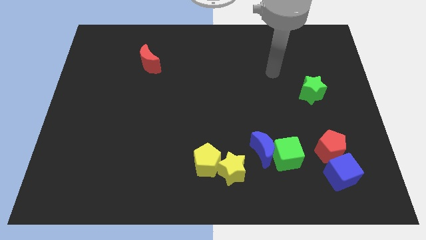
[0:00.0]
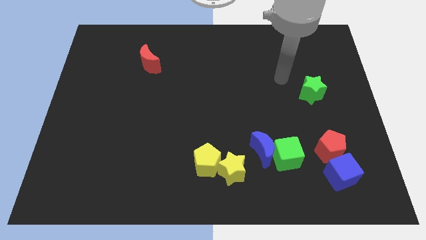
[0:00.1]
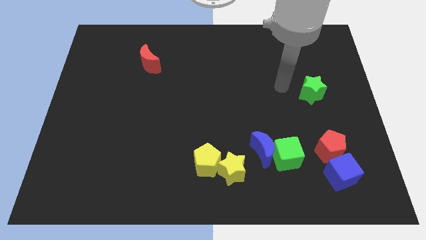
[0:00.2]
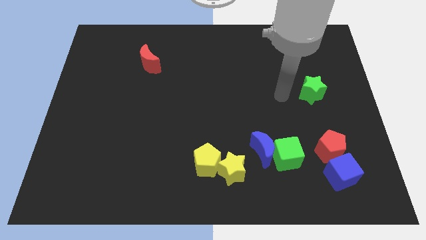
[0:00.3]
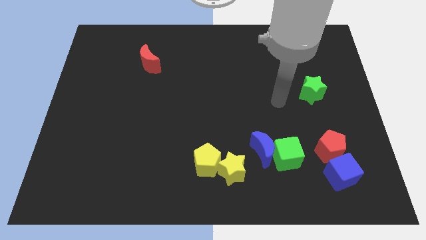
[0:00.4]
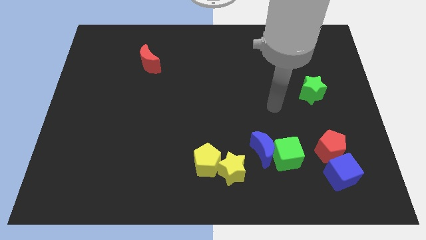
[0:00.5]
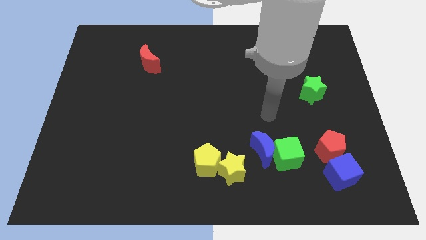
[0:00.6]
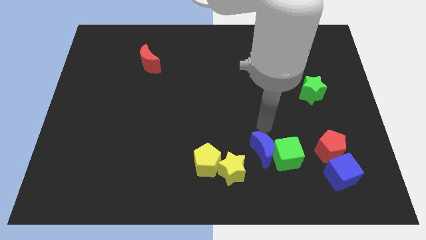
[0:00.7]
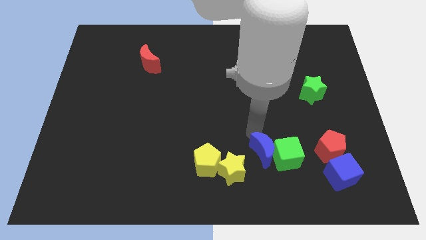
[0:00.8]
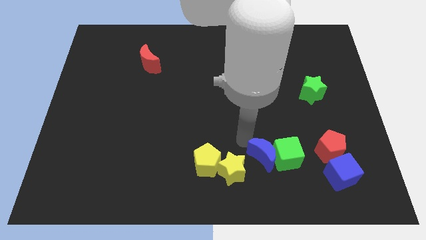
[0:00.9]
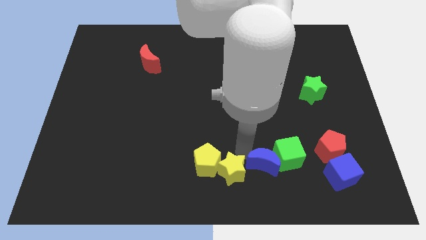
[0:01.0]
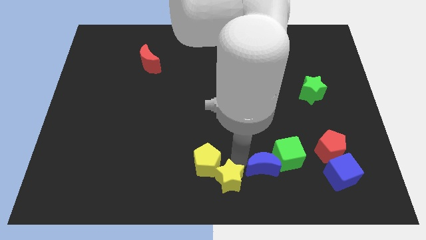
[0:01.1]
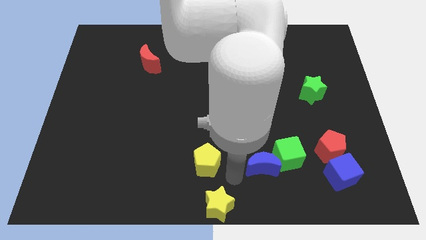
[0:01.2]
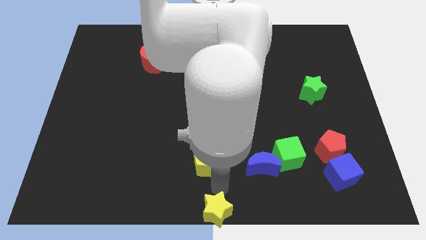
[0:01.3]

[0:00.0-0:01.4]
pull the yellow pentagon apart from the yellow star

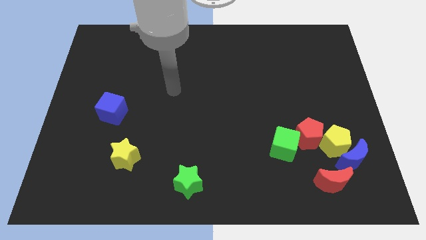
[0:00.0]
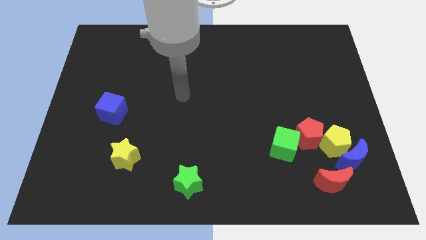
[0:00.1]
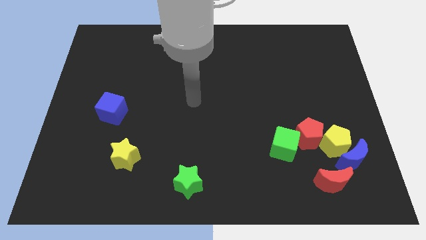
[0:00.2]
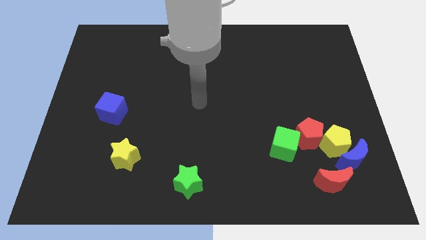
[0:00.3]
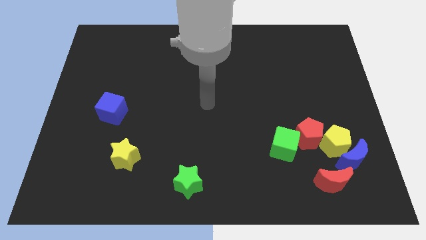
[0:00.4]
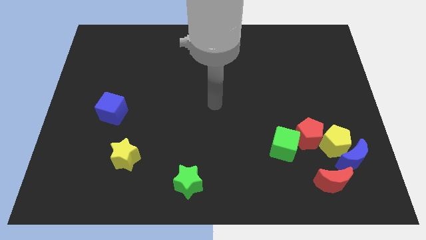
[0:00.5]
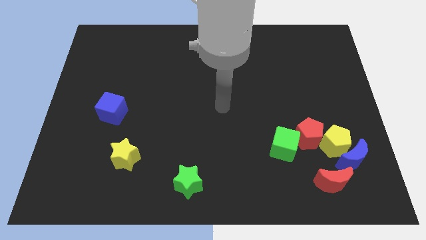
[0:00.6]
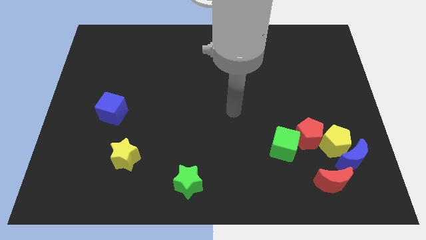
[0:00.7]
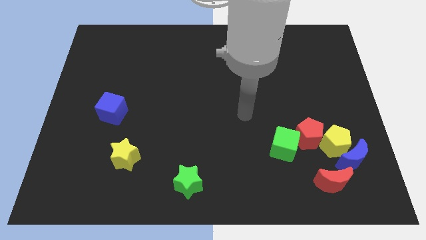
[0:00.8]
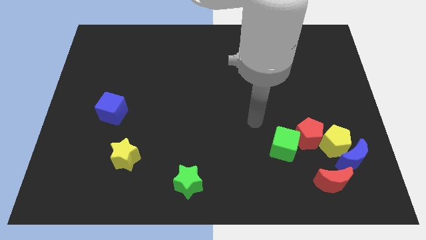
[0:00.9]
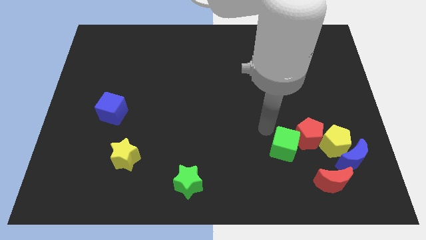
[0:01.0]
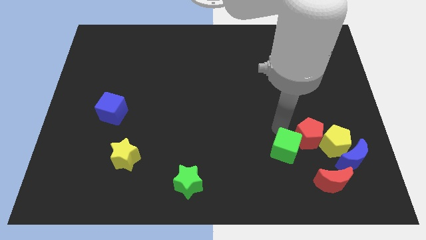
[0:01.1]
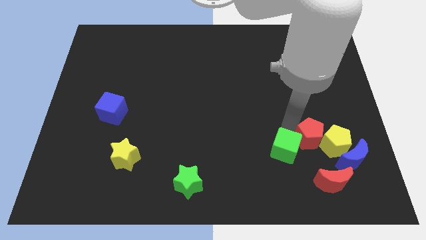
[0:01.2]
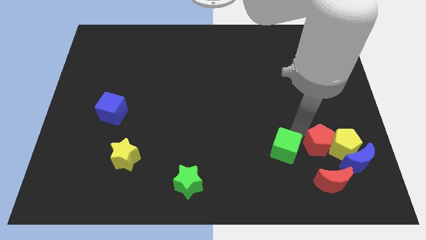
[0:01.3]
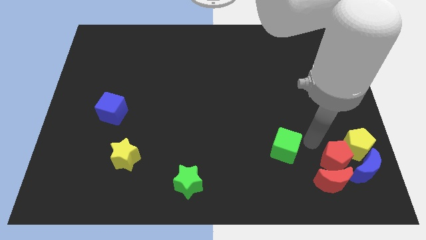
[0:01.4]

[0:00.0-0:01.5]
separate the green cube from the red pentagon

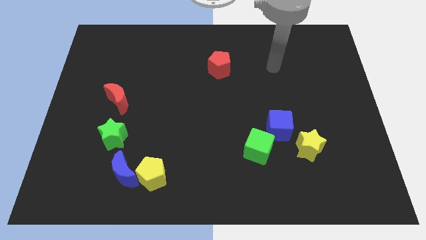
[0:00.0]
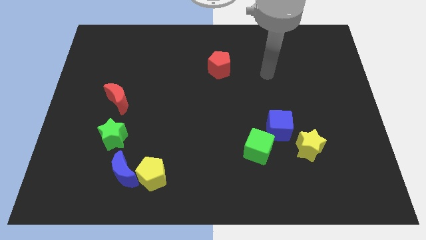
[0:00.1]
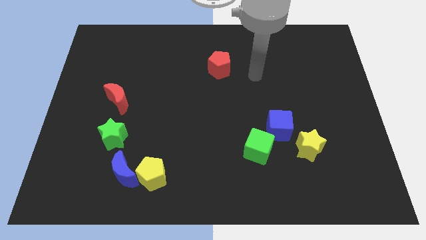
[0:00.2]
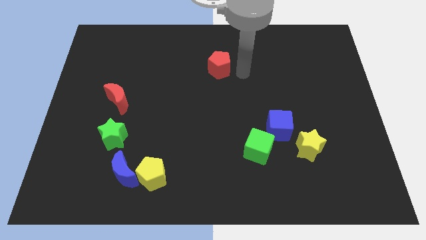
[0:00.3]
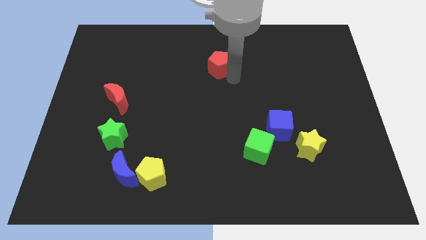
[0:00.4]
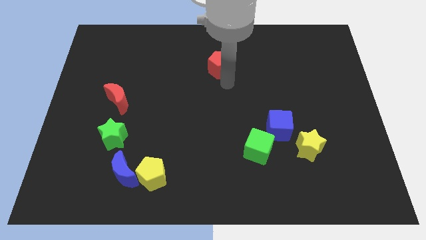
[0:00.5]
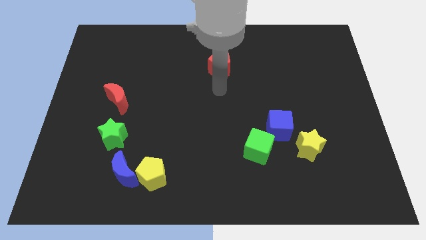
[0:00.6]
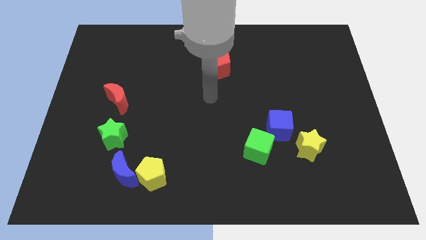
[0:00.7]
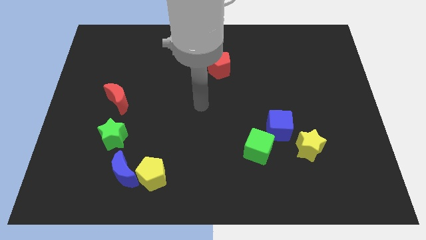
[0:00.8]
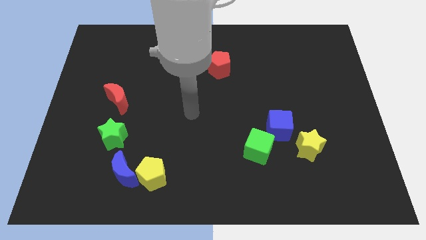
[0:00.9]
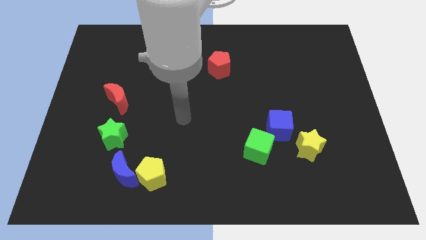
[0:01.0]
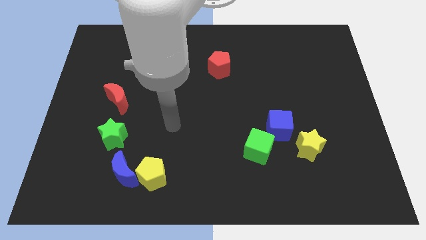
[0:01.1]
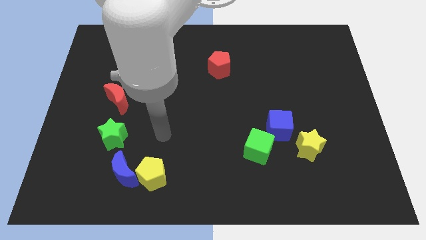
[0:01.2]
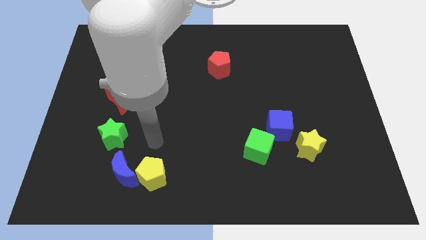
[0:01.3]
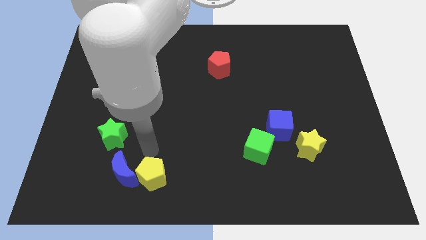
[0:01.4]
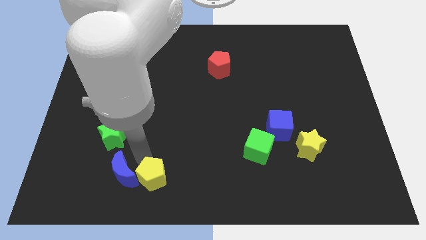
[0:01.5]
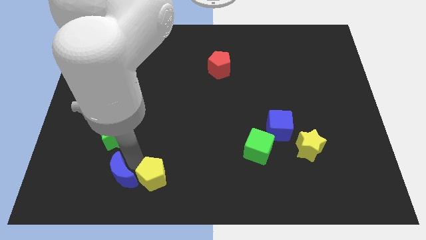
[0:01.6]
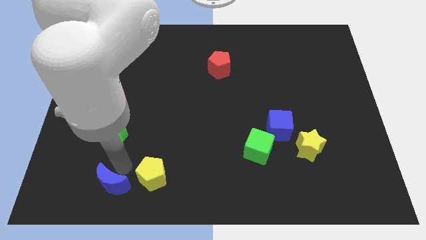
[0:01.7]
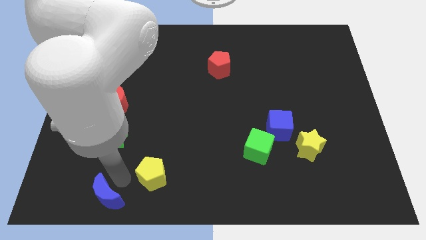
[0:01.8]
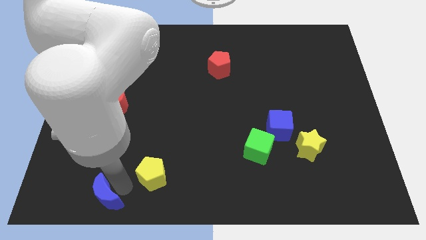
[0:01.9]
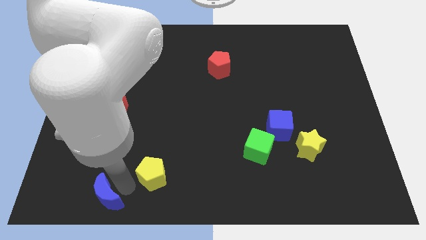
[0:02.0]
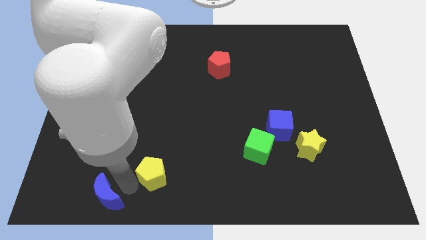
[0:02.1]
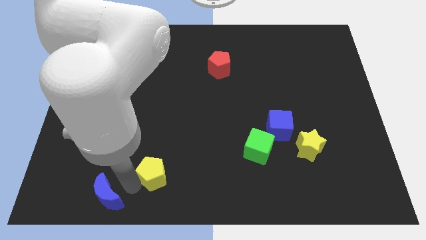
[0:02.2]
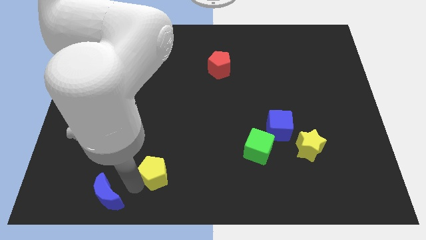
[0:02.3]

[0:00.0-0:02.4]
pull the yellow pentagon apart from the blue moon

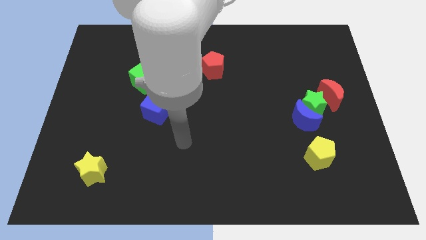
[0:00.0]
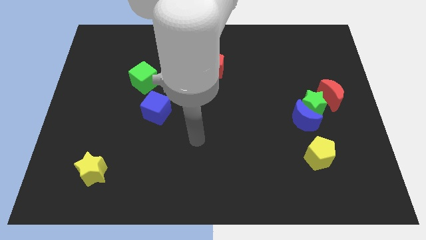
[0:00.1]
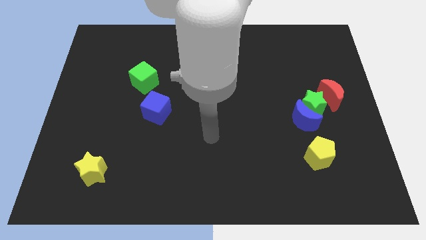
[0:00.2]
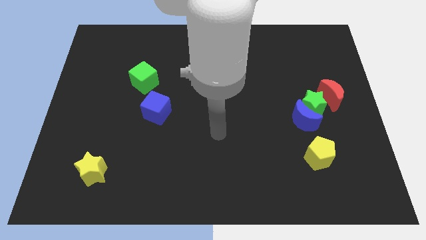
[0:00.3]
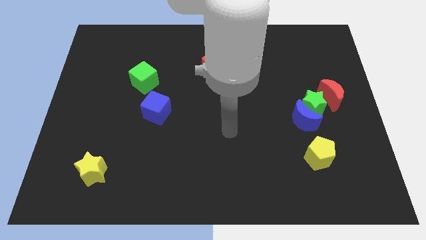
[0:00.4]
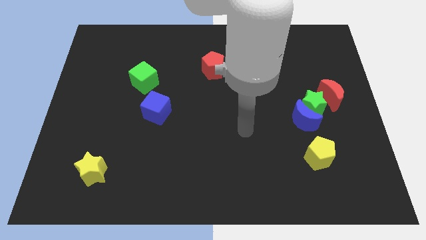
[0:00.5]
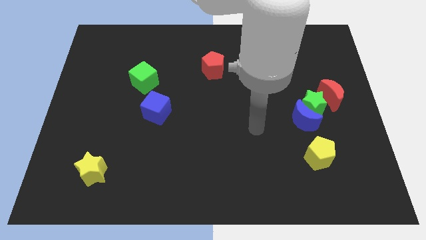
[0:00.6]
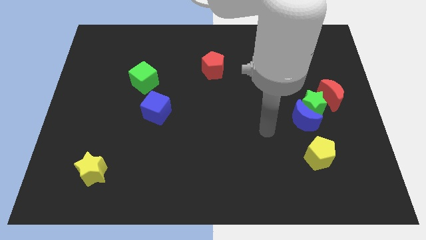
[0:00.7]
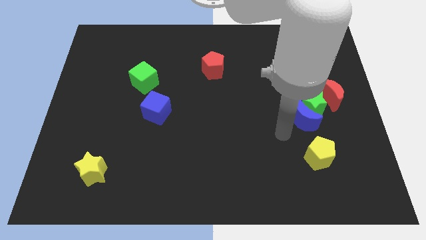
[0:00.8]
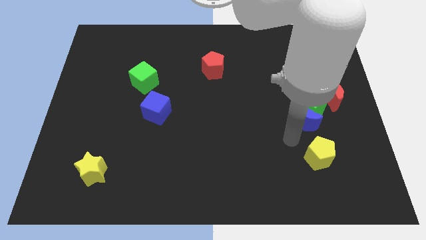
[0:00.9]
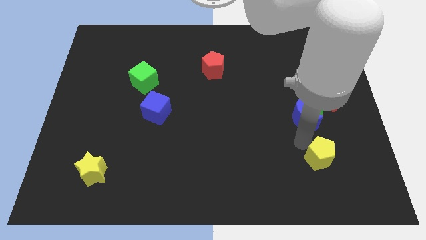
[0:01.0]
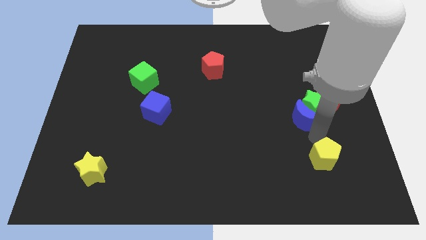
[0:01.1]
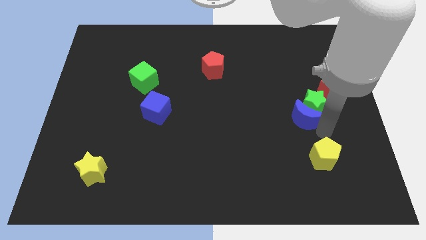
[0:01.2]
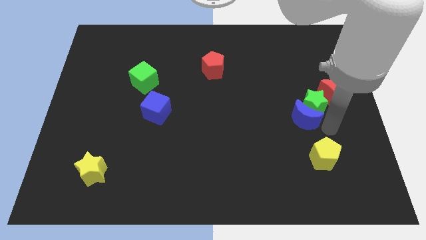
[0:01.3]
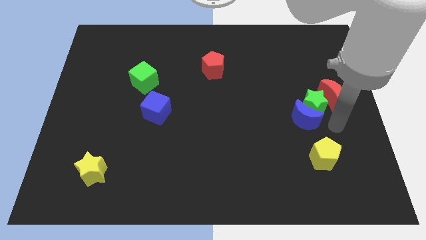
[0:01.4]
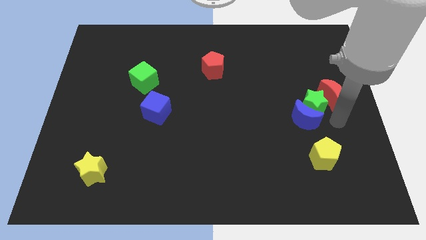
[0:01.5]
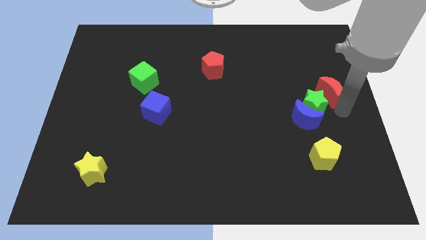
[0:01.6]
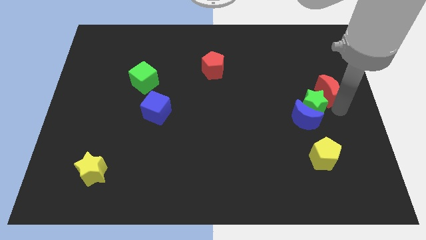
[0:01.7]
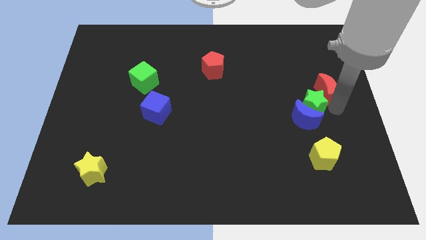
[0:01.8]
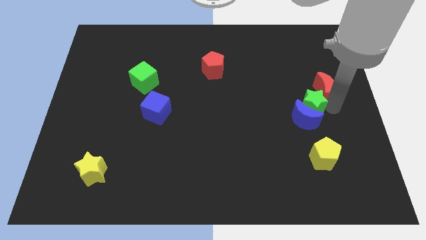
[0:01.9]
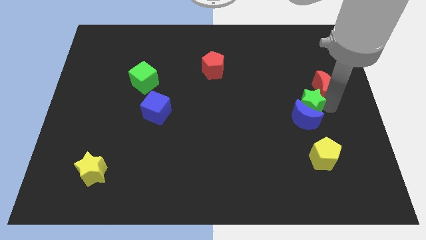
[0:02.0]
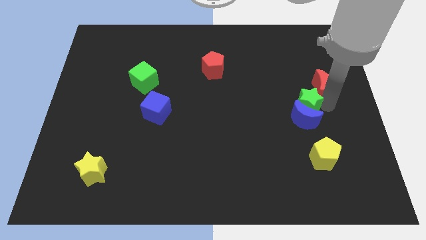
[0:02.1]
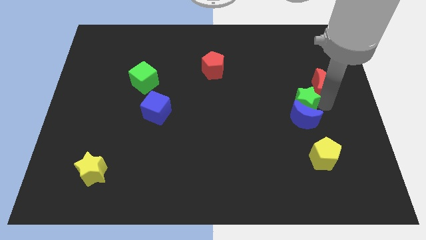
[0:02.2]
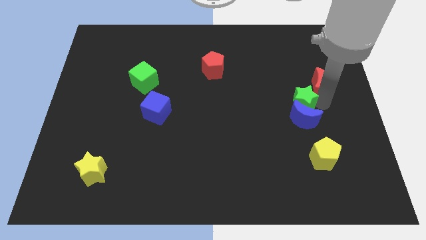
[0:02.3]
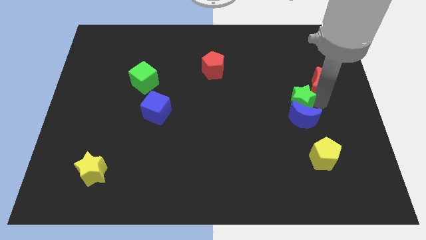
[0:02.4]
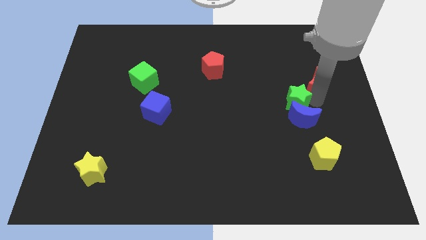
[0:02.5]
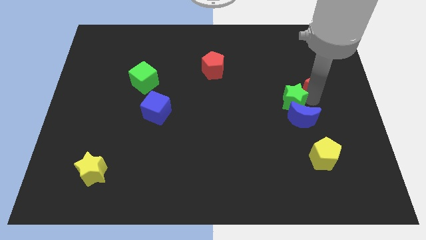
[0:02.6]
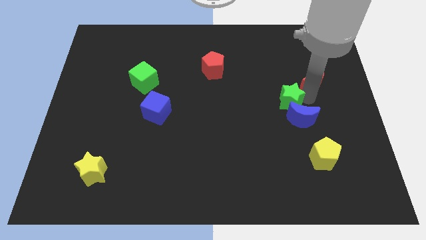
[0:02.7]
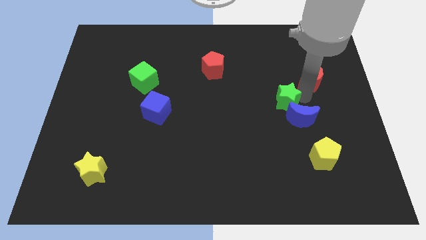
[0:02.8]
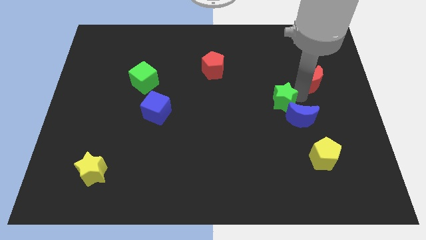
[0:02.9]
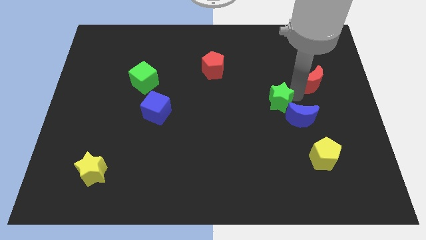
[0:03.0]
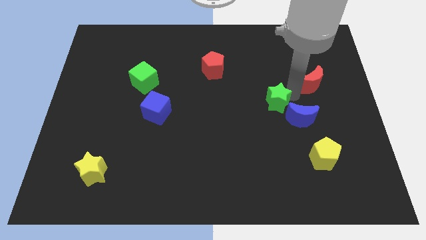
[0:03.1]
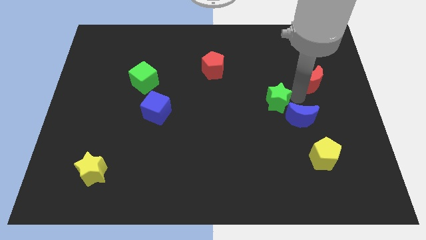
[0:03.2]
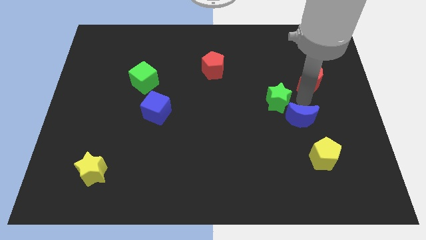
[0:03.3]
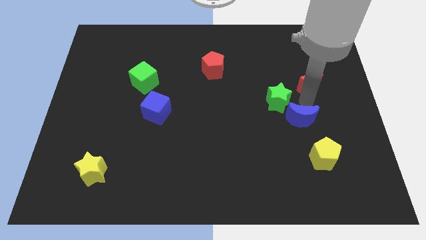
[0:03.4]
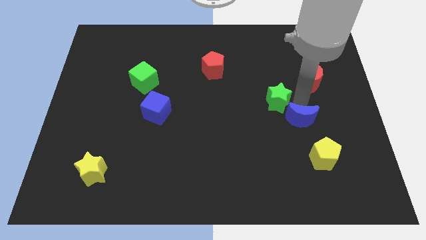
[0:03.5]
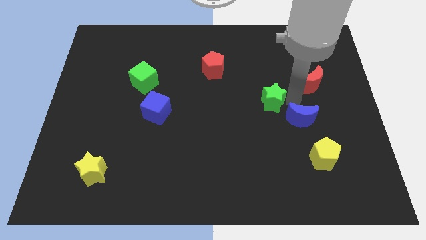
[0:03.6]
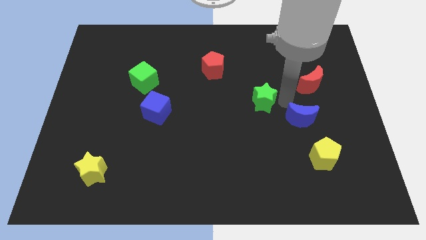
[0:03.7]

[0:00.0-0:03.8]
pull the green star apart from the blue moon and red moon

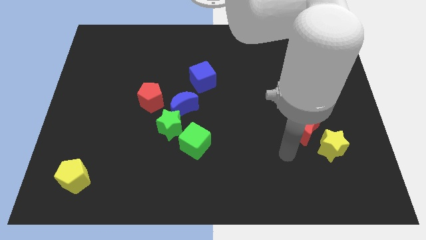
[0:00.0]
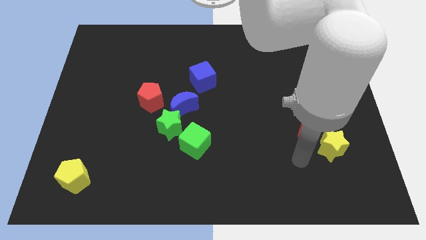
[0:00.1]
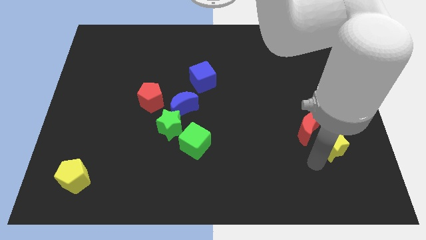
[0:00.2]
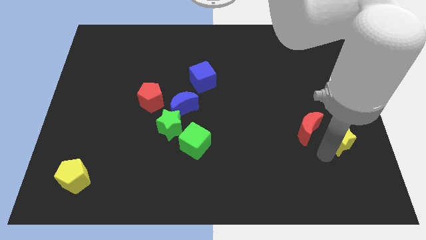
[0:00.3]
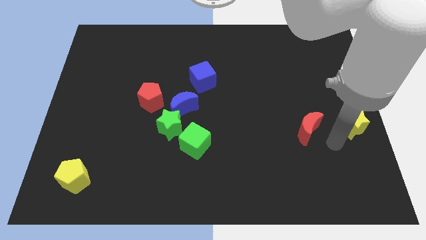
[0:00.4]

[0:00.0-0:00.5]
pull the red moon apart from the yellow star
